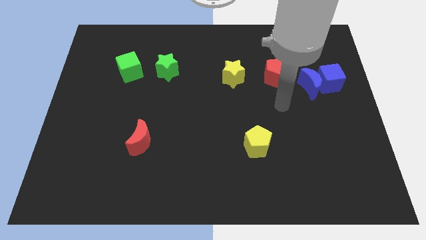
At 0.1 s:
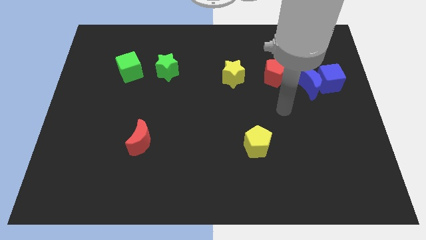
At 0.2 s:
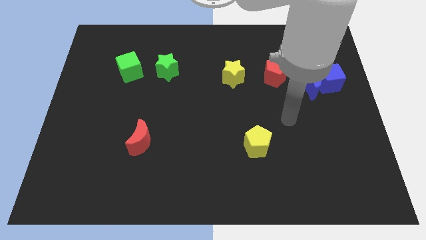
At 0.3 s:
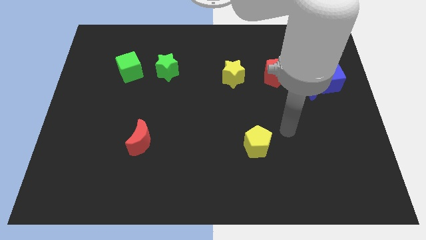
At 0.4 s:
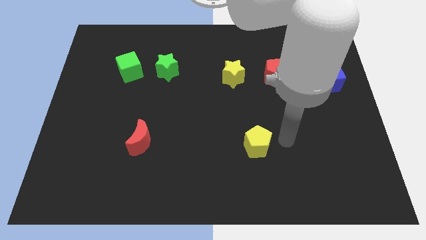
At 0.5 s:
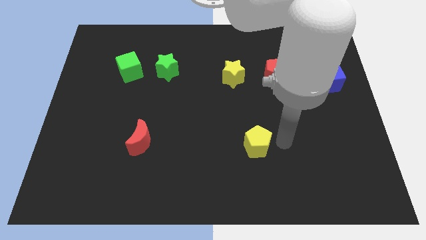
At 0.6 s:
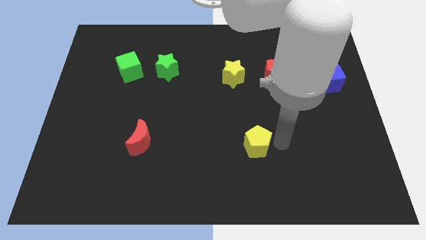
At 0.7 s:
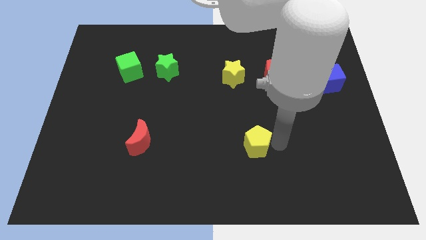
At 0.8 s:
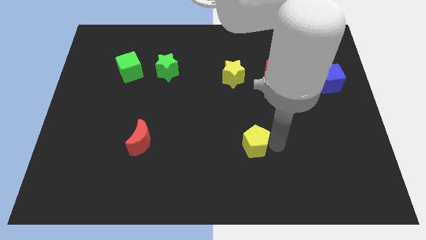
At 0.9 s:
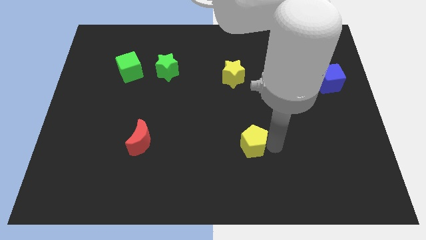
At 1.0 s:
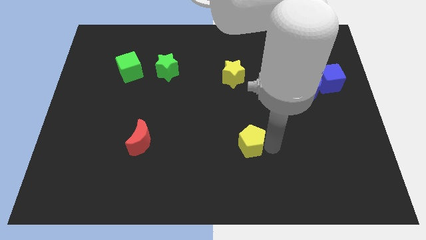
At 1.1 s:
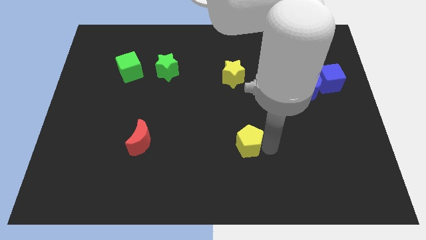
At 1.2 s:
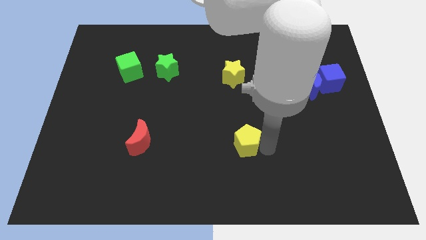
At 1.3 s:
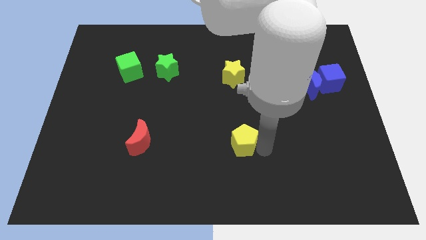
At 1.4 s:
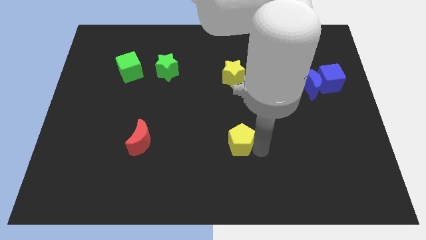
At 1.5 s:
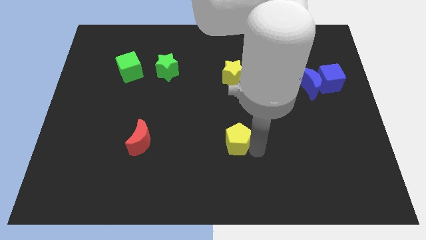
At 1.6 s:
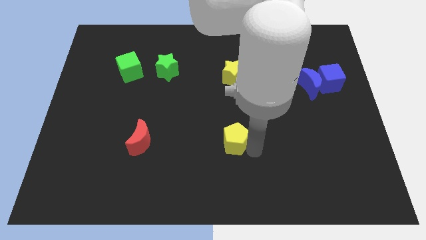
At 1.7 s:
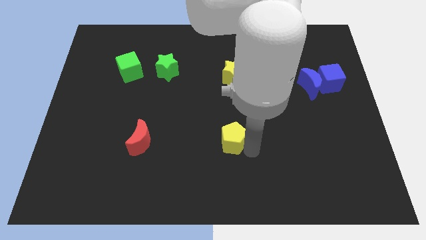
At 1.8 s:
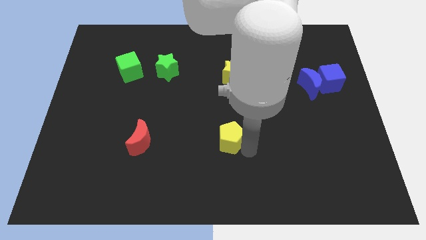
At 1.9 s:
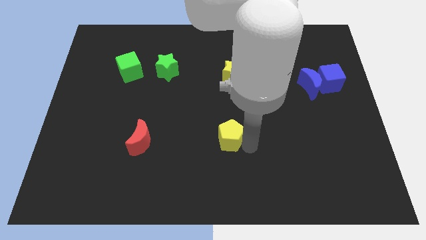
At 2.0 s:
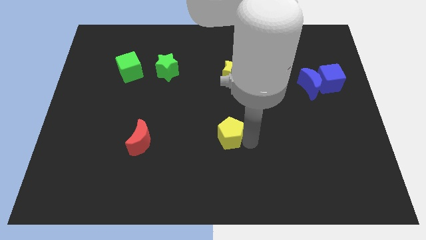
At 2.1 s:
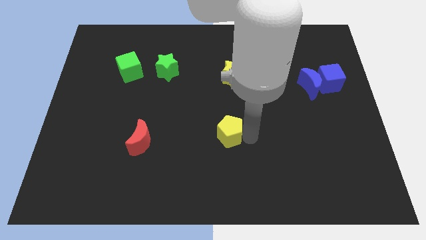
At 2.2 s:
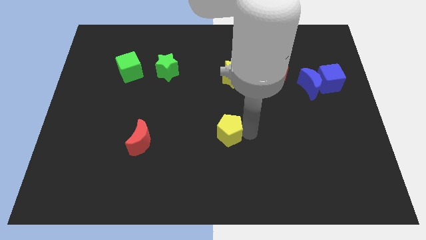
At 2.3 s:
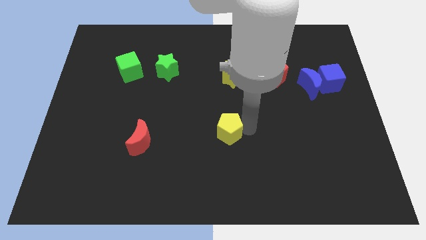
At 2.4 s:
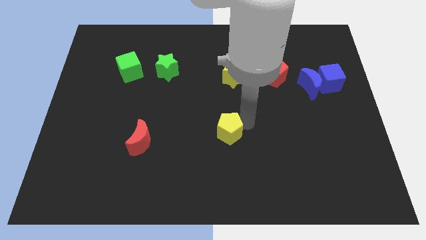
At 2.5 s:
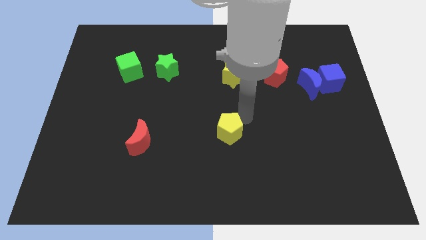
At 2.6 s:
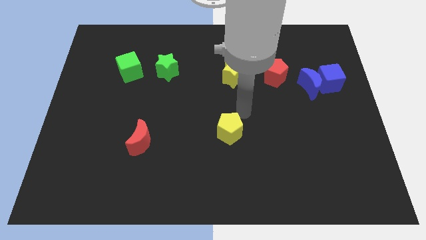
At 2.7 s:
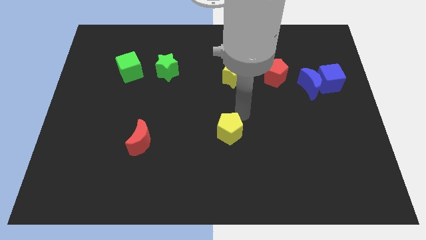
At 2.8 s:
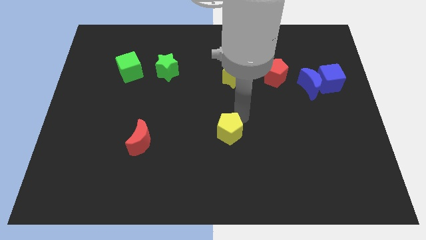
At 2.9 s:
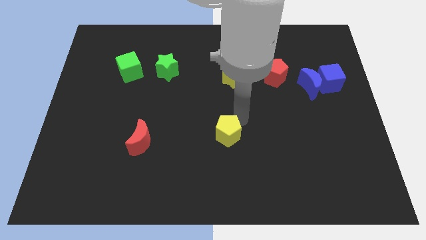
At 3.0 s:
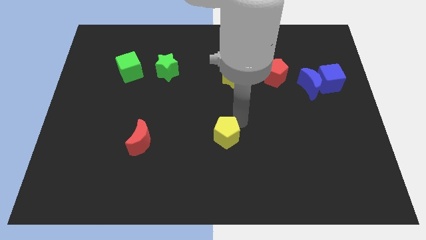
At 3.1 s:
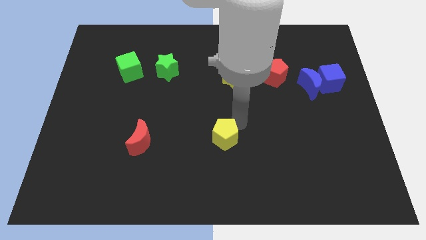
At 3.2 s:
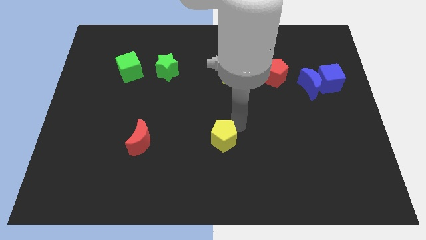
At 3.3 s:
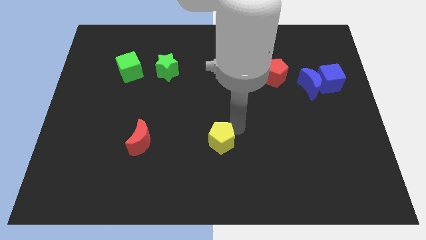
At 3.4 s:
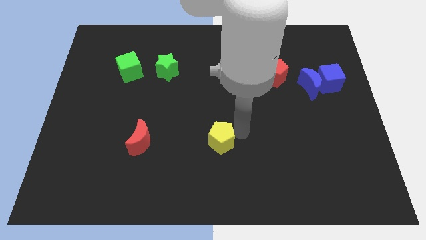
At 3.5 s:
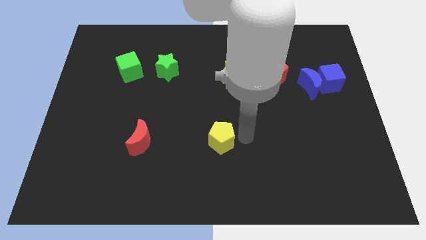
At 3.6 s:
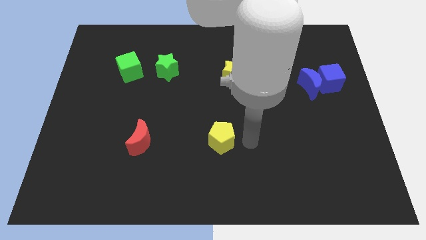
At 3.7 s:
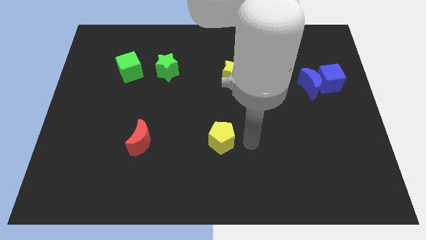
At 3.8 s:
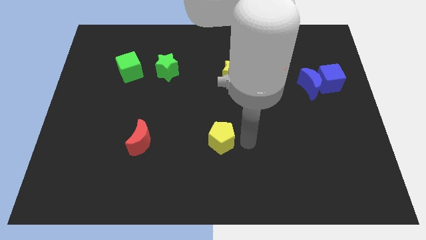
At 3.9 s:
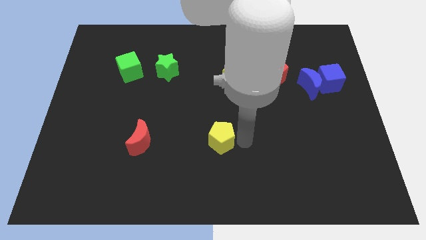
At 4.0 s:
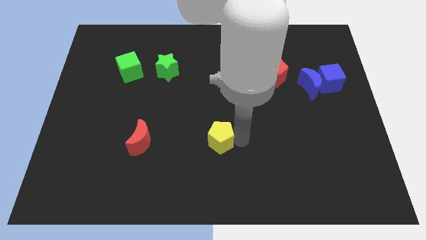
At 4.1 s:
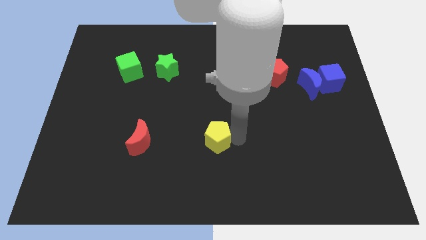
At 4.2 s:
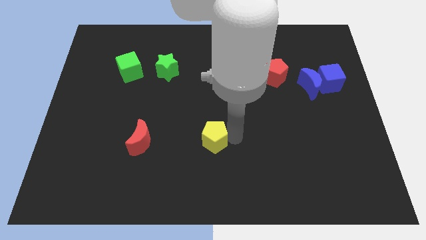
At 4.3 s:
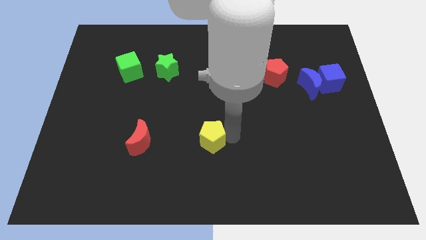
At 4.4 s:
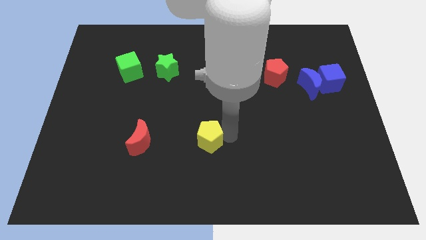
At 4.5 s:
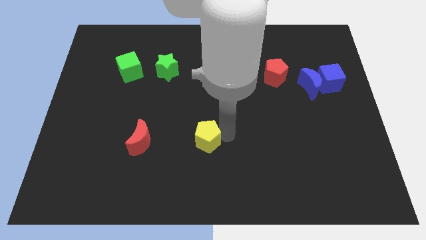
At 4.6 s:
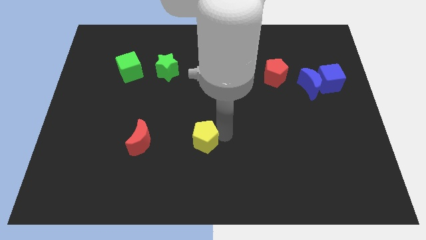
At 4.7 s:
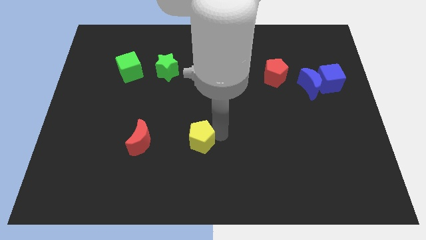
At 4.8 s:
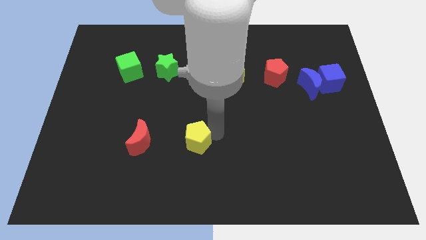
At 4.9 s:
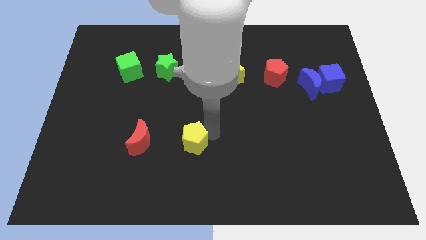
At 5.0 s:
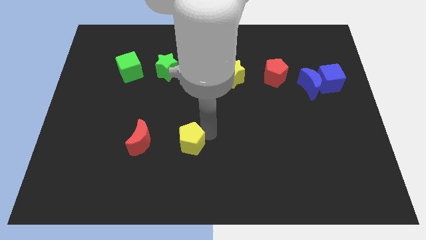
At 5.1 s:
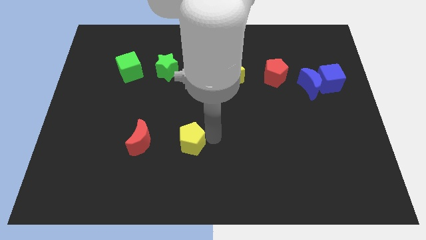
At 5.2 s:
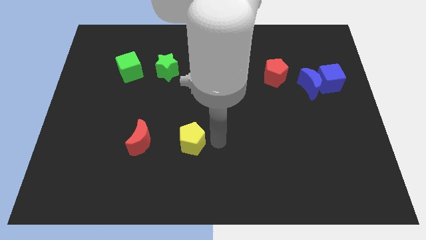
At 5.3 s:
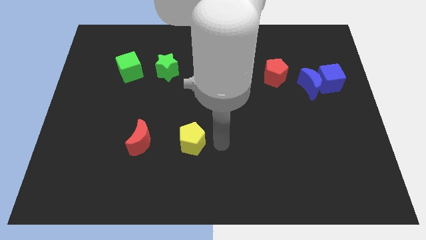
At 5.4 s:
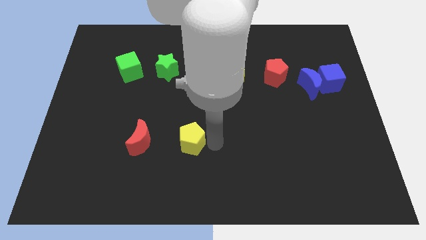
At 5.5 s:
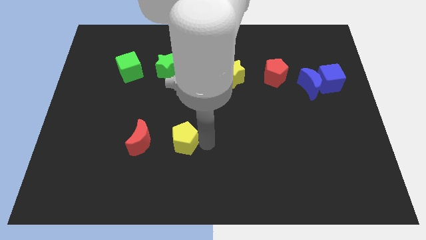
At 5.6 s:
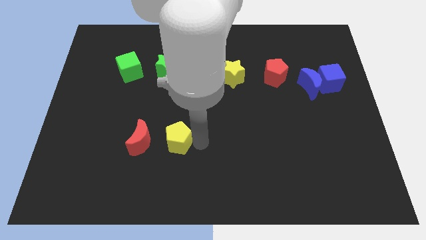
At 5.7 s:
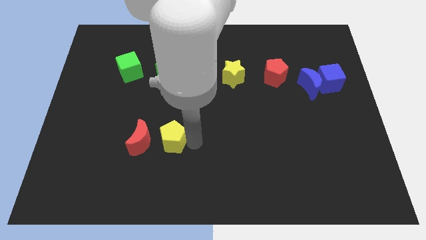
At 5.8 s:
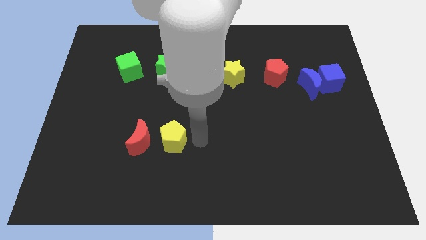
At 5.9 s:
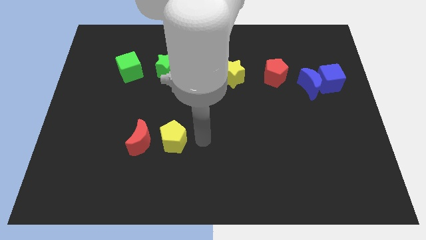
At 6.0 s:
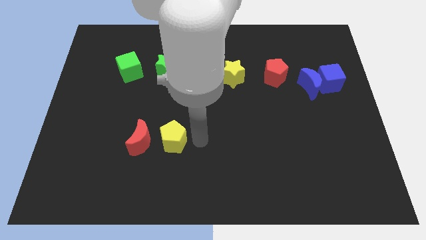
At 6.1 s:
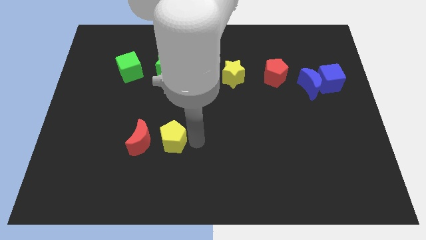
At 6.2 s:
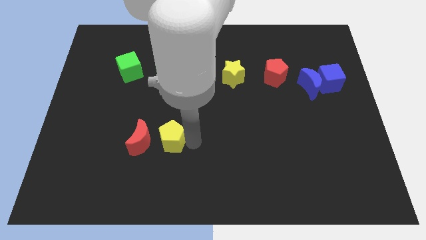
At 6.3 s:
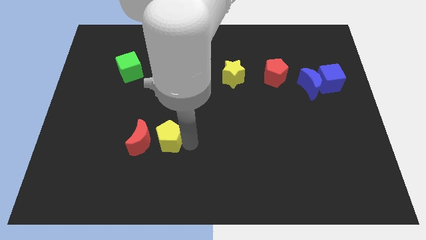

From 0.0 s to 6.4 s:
push the yellow pentagon next to the red moon

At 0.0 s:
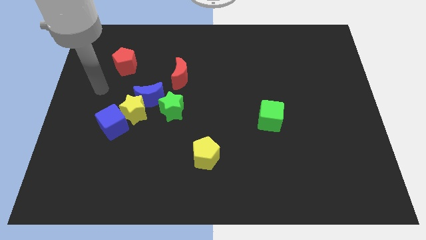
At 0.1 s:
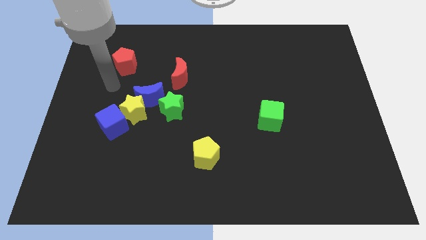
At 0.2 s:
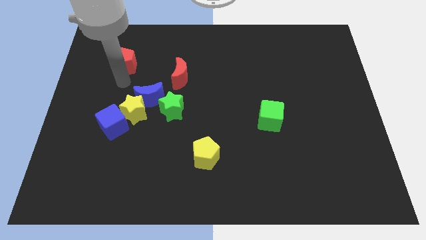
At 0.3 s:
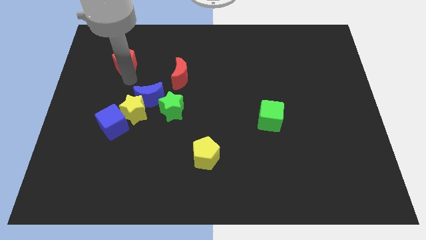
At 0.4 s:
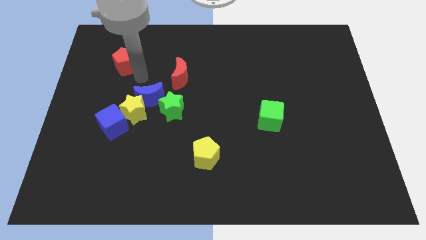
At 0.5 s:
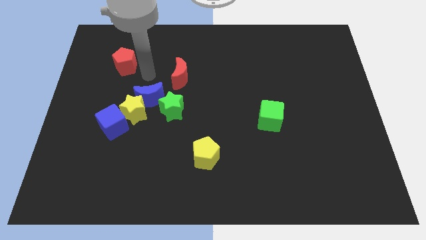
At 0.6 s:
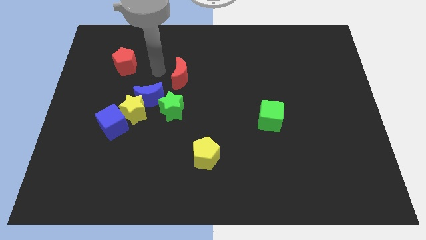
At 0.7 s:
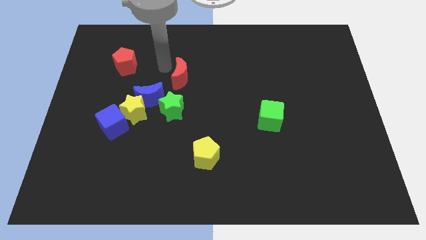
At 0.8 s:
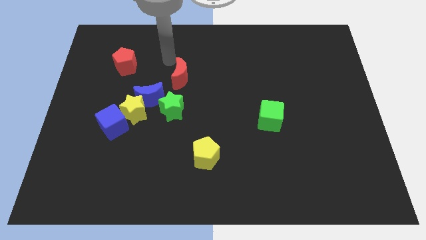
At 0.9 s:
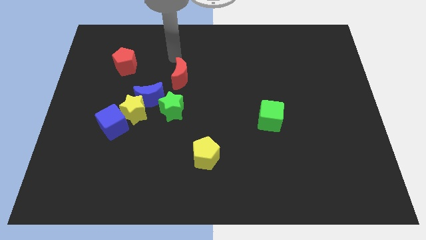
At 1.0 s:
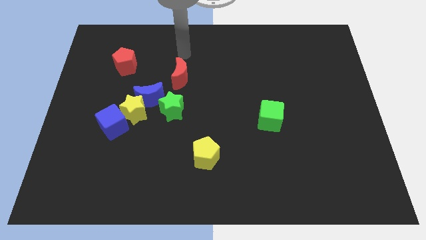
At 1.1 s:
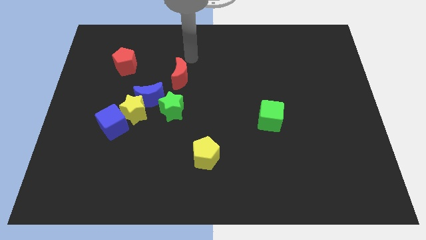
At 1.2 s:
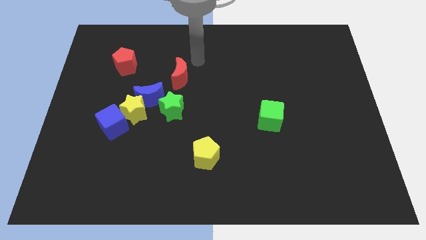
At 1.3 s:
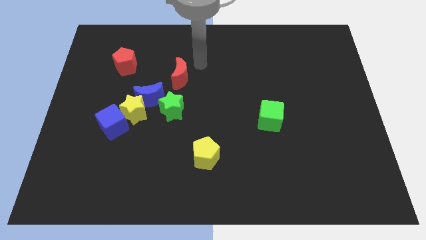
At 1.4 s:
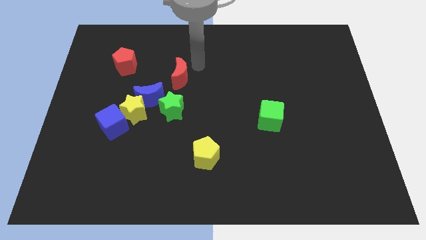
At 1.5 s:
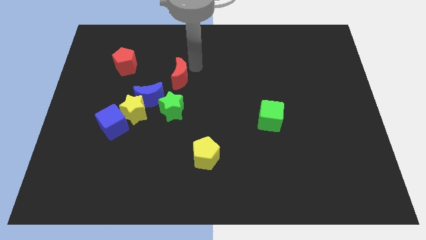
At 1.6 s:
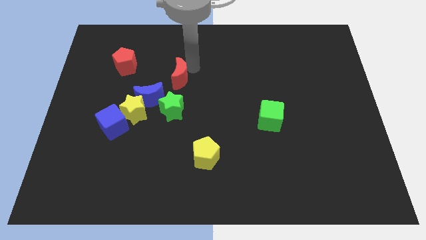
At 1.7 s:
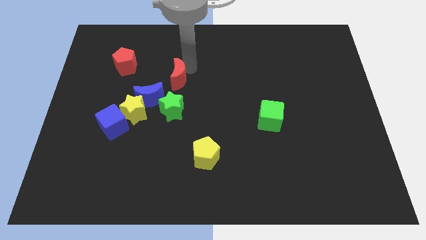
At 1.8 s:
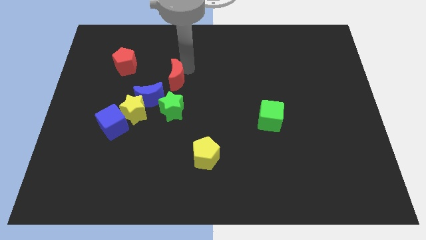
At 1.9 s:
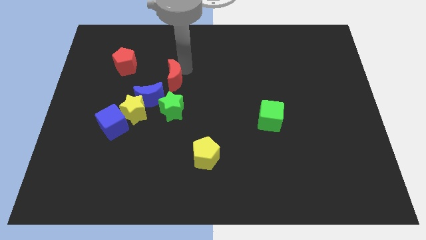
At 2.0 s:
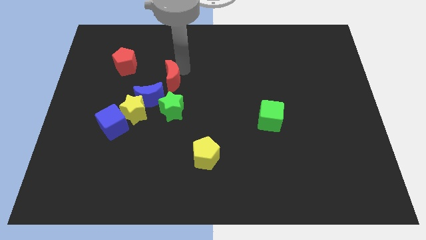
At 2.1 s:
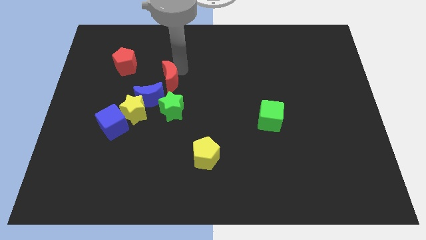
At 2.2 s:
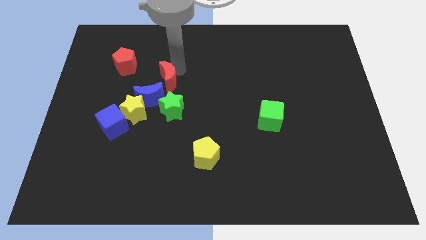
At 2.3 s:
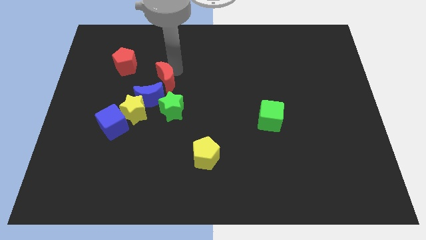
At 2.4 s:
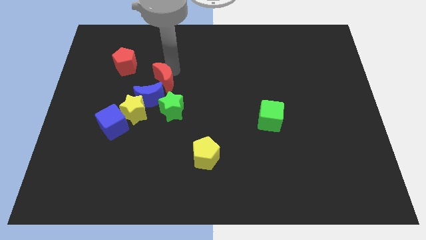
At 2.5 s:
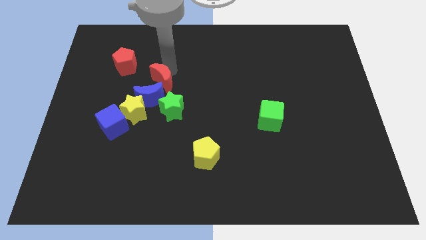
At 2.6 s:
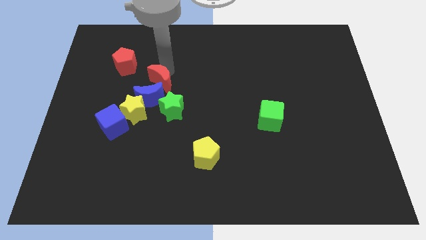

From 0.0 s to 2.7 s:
put the red moon to the blue moon
